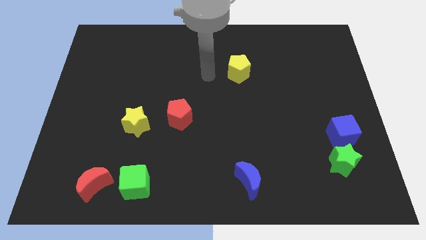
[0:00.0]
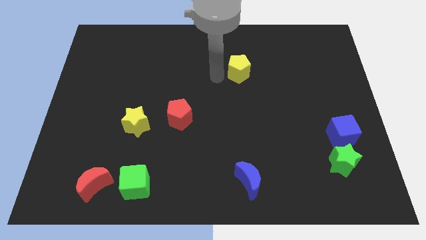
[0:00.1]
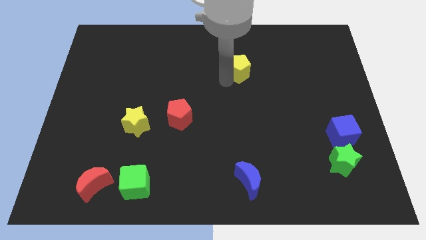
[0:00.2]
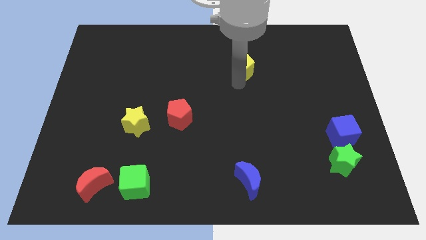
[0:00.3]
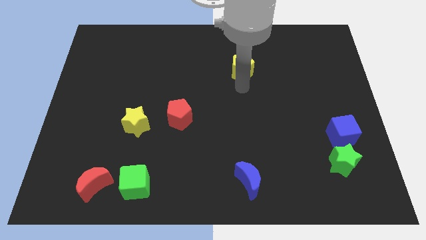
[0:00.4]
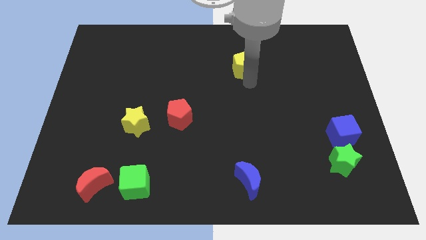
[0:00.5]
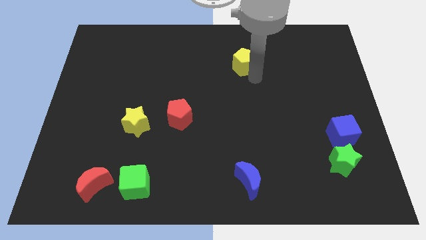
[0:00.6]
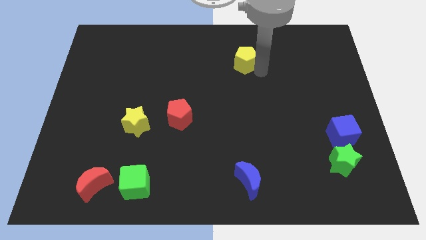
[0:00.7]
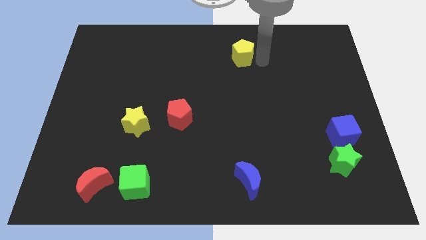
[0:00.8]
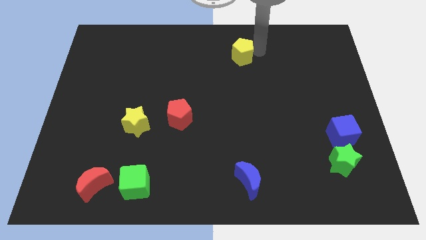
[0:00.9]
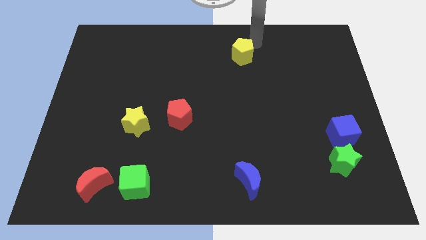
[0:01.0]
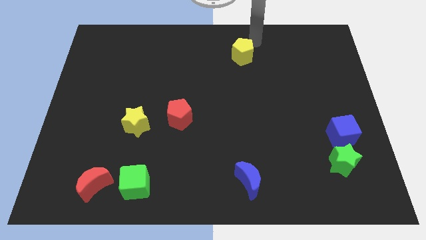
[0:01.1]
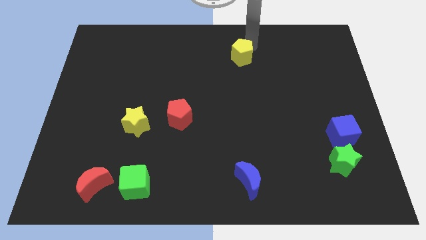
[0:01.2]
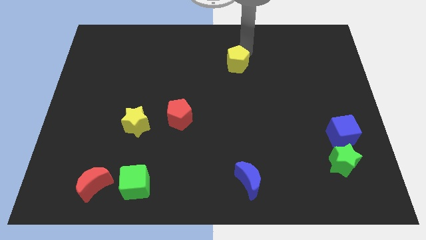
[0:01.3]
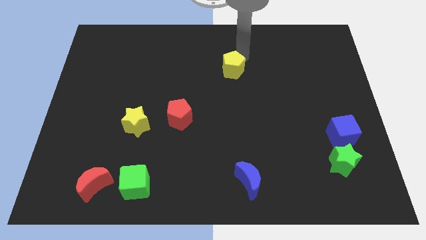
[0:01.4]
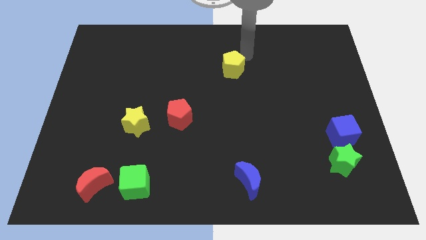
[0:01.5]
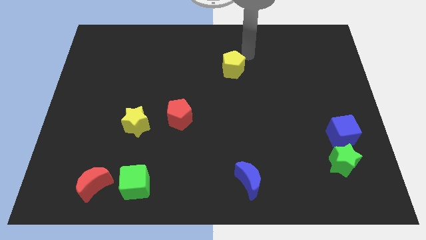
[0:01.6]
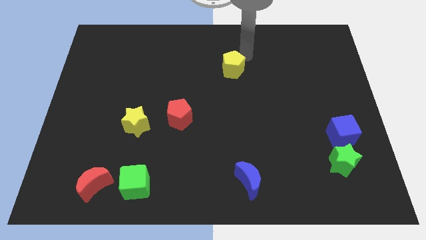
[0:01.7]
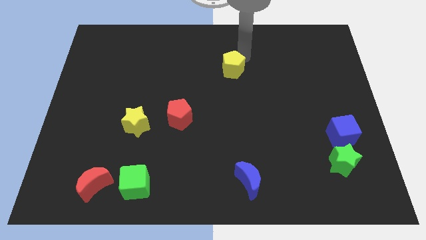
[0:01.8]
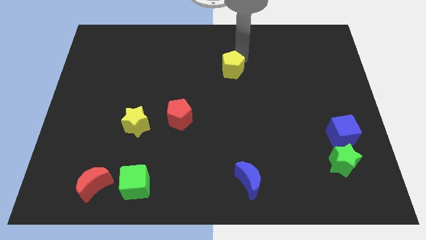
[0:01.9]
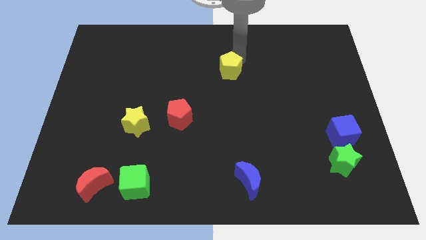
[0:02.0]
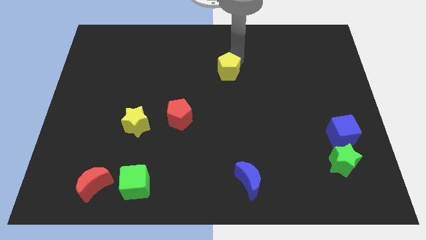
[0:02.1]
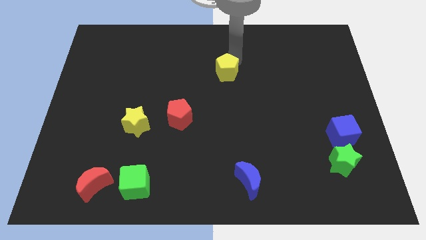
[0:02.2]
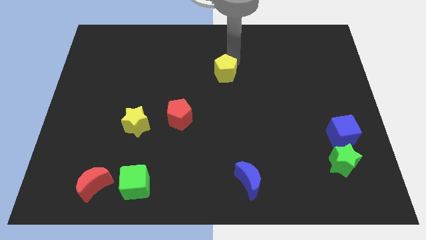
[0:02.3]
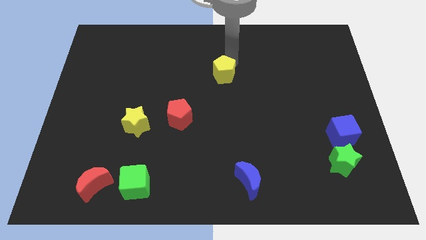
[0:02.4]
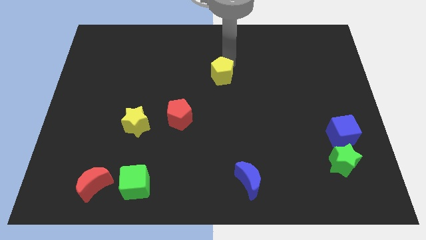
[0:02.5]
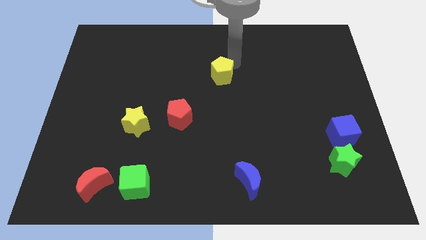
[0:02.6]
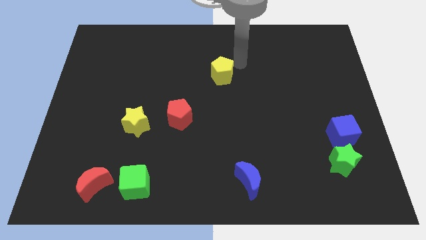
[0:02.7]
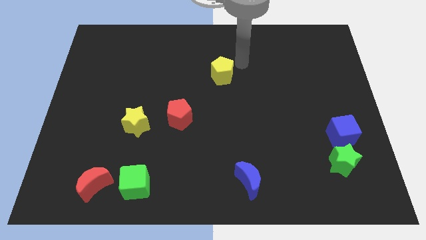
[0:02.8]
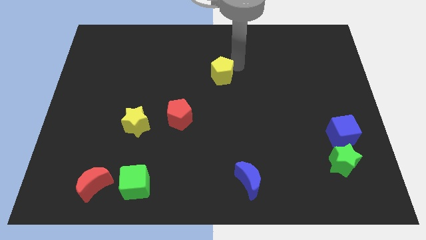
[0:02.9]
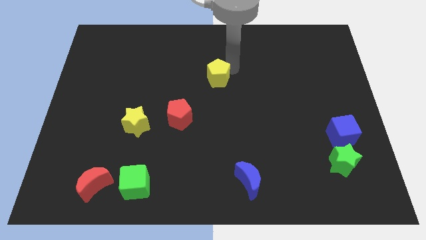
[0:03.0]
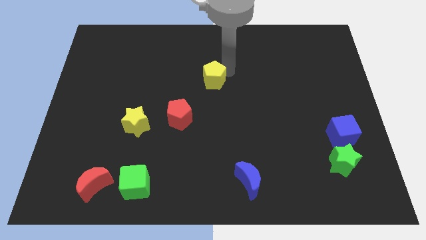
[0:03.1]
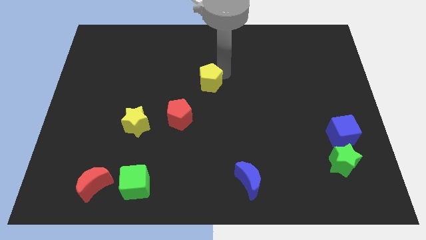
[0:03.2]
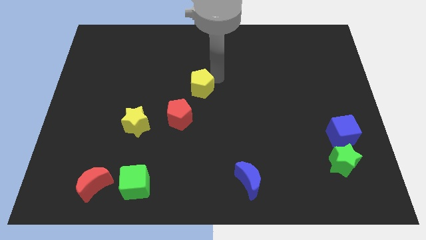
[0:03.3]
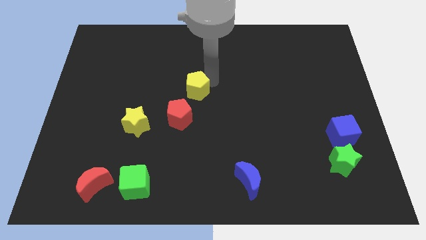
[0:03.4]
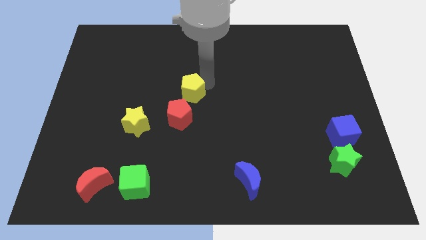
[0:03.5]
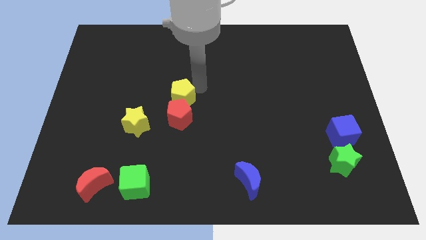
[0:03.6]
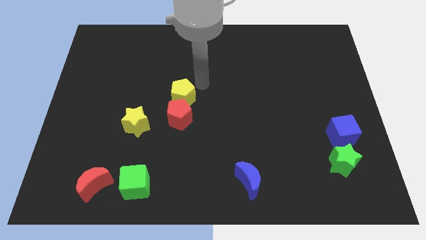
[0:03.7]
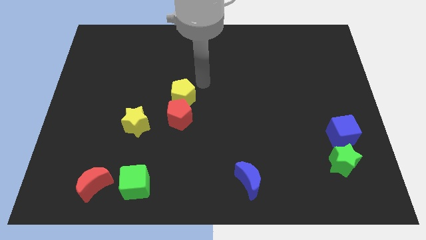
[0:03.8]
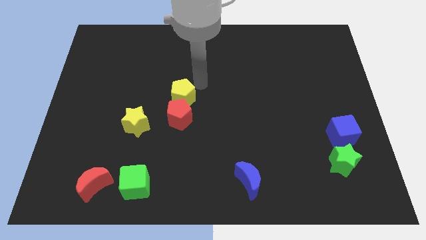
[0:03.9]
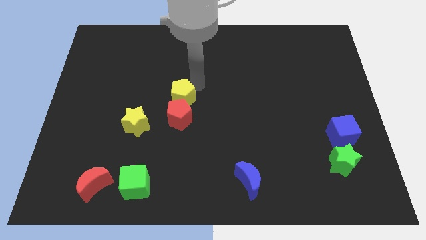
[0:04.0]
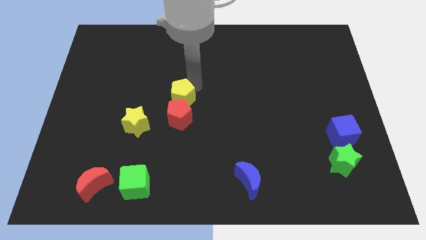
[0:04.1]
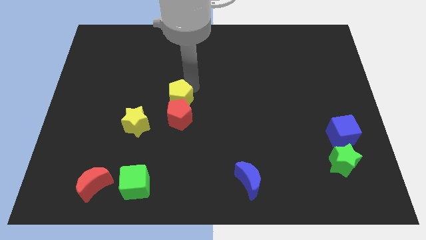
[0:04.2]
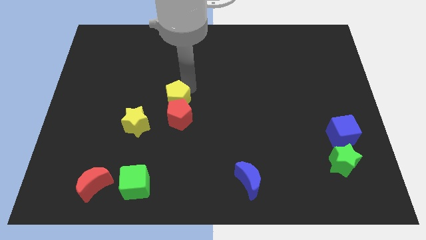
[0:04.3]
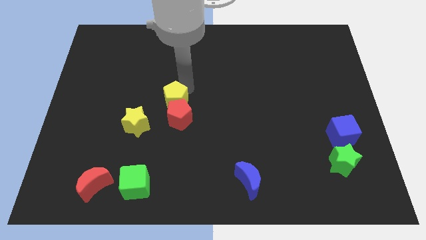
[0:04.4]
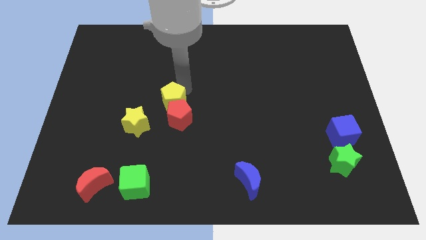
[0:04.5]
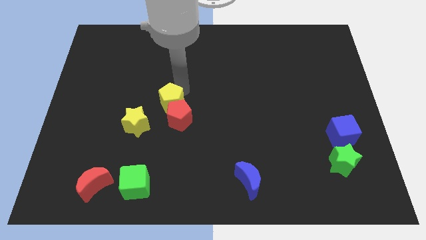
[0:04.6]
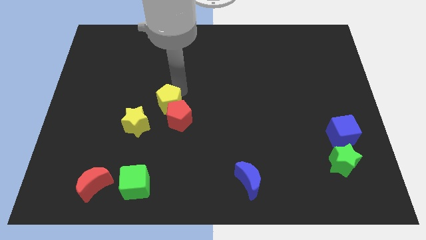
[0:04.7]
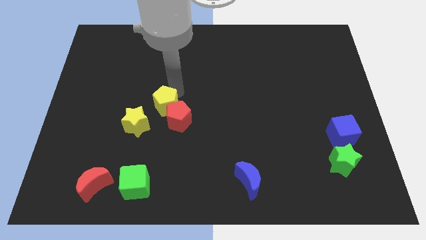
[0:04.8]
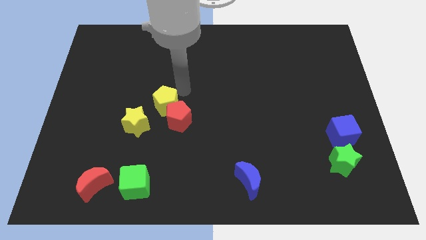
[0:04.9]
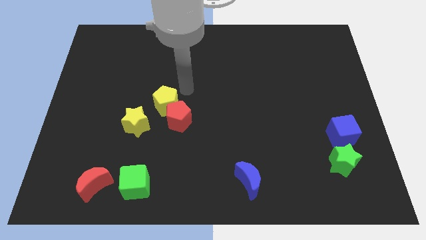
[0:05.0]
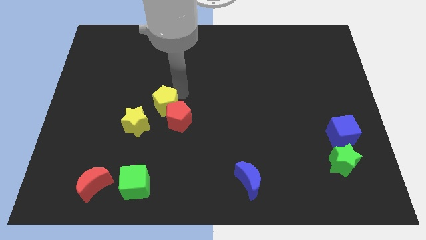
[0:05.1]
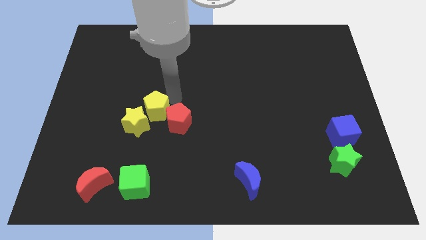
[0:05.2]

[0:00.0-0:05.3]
move the yellow pentagon close to the yellow star

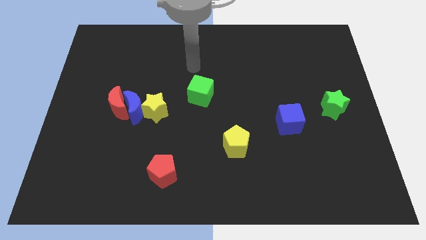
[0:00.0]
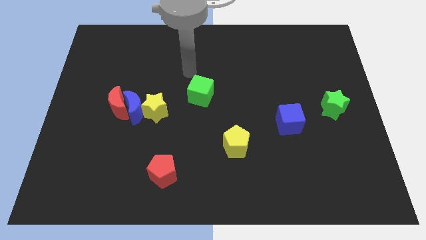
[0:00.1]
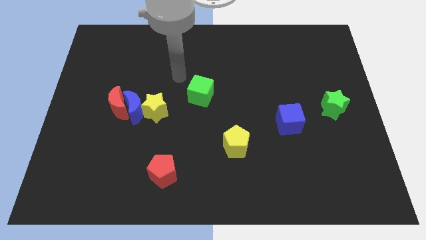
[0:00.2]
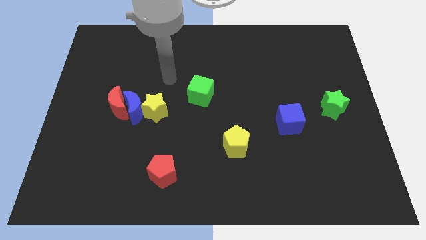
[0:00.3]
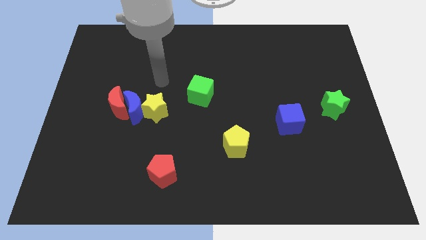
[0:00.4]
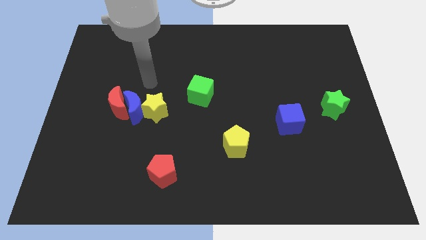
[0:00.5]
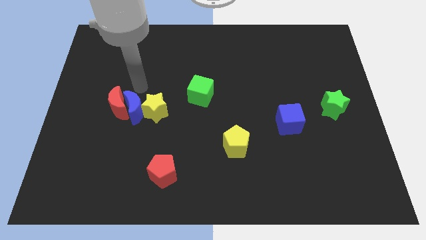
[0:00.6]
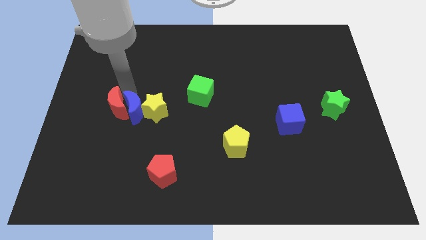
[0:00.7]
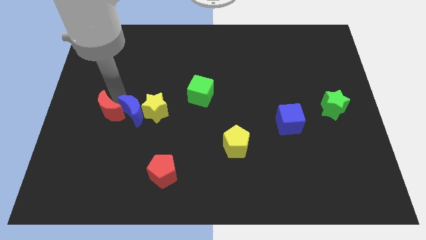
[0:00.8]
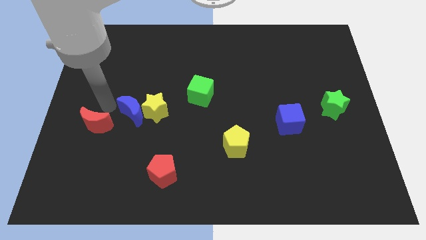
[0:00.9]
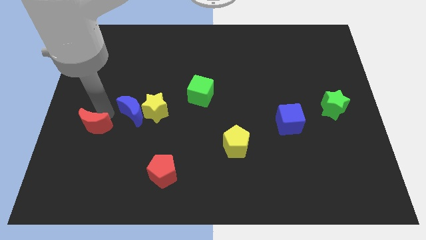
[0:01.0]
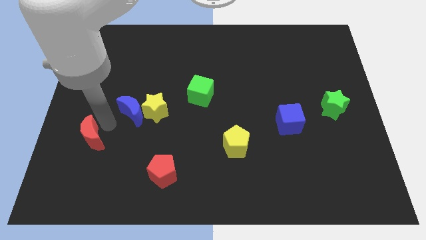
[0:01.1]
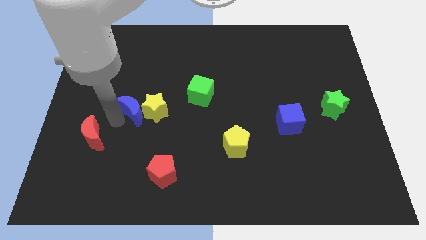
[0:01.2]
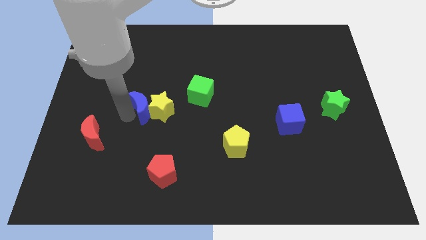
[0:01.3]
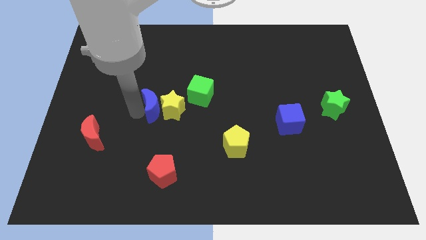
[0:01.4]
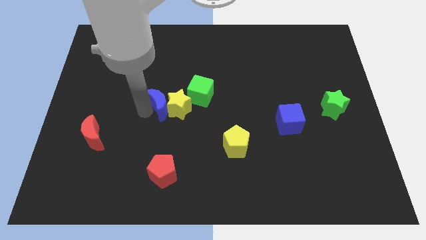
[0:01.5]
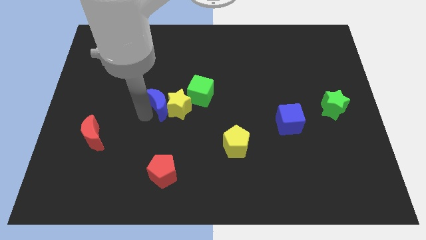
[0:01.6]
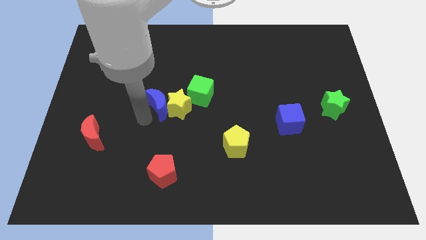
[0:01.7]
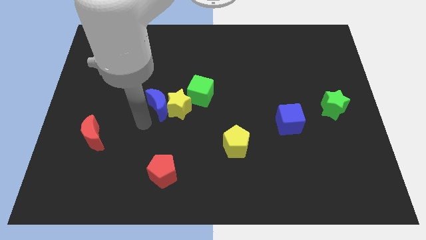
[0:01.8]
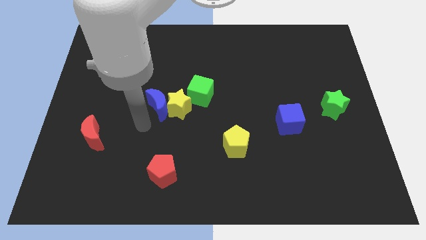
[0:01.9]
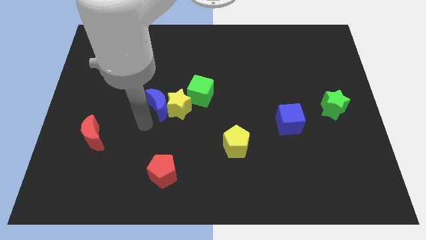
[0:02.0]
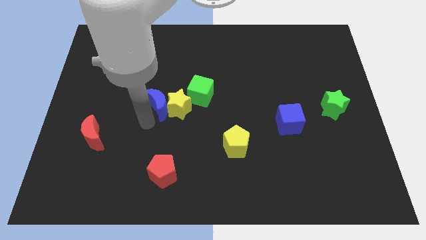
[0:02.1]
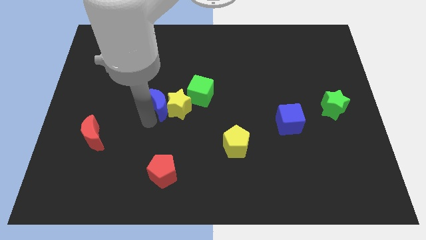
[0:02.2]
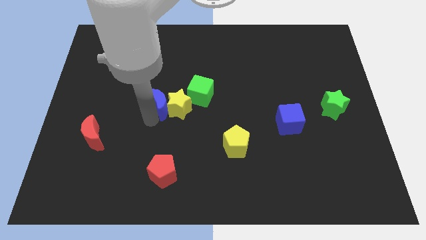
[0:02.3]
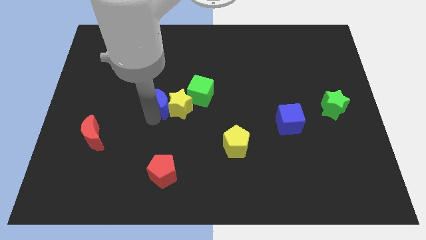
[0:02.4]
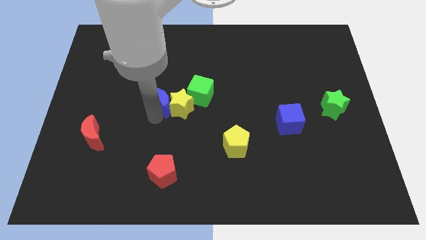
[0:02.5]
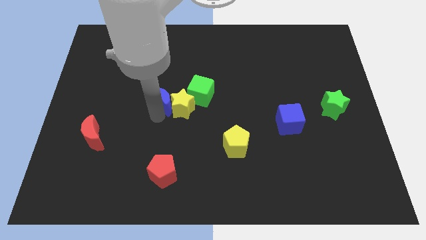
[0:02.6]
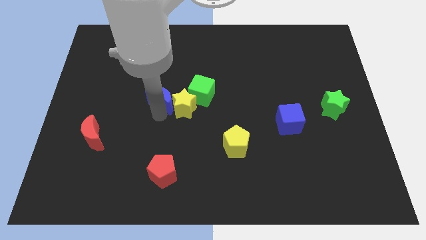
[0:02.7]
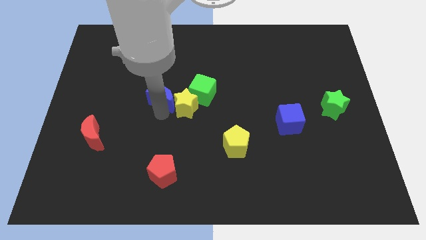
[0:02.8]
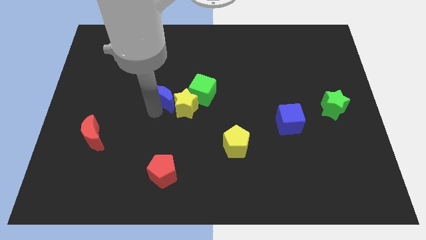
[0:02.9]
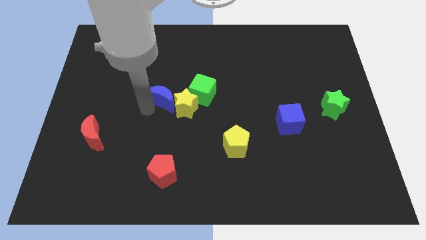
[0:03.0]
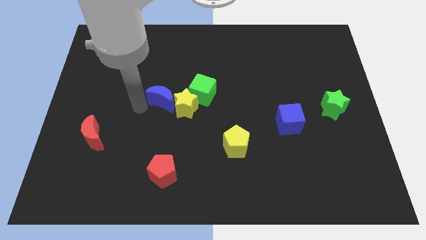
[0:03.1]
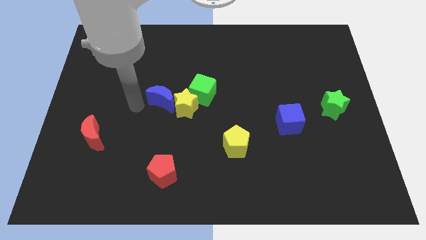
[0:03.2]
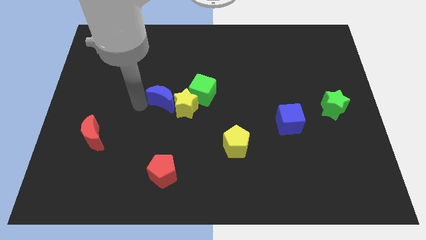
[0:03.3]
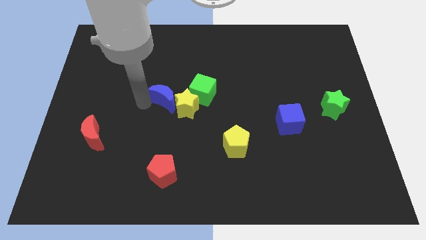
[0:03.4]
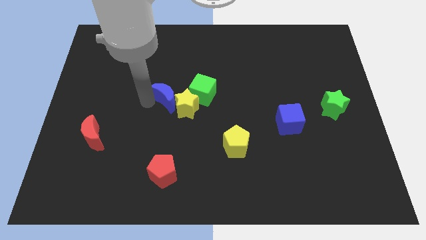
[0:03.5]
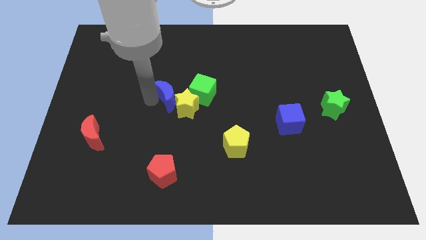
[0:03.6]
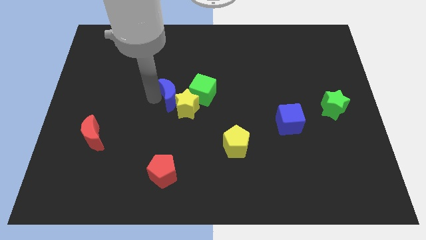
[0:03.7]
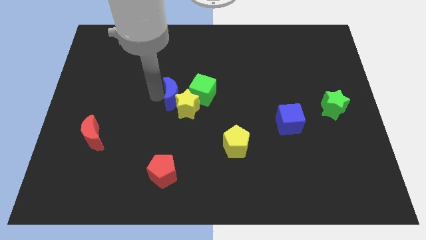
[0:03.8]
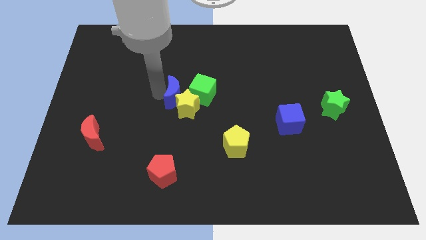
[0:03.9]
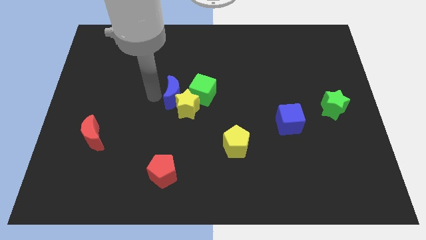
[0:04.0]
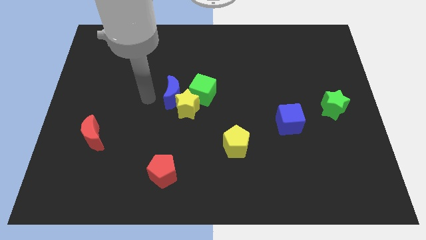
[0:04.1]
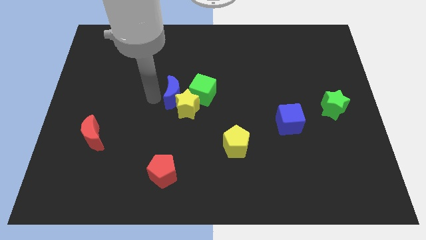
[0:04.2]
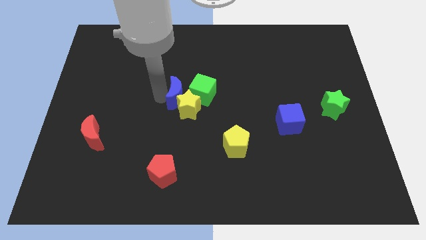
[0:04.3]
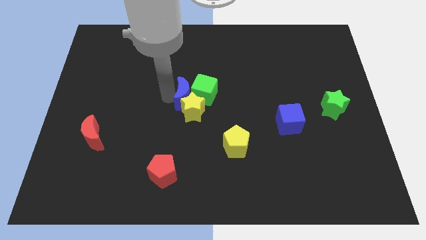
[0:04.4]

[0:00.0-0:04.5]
move the blue moon next to the green cube
